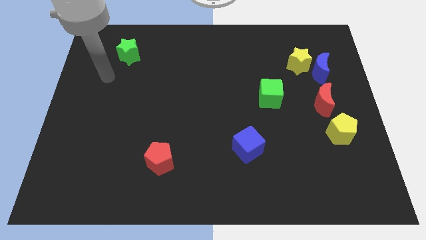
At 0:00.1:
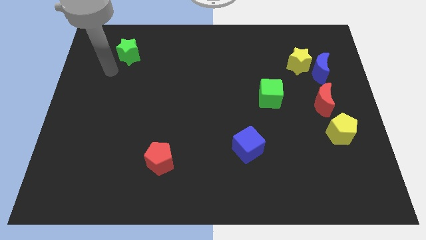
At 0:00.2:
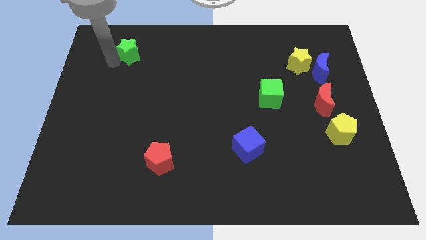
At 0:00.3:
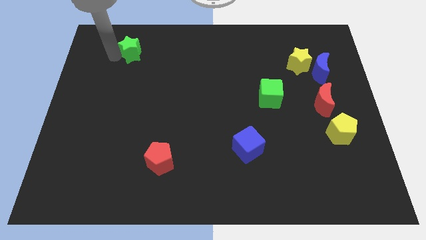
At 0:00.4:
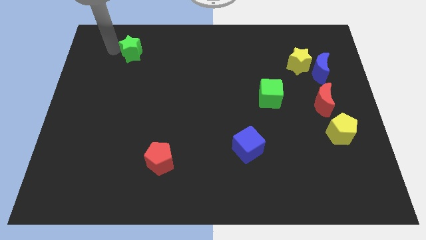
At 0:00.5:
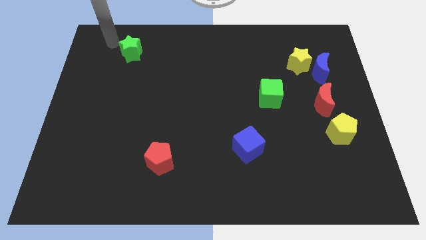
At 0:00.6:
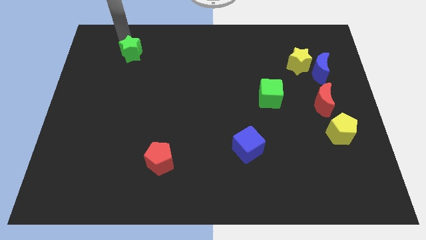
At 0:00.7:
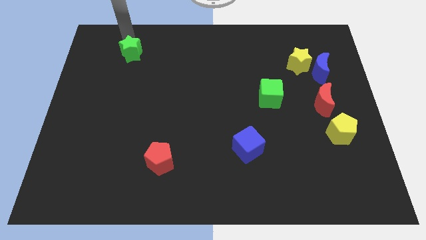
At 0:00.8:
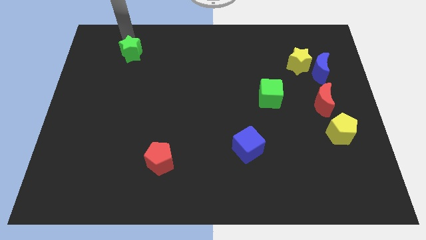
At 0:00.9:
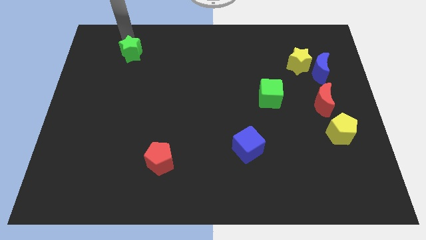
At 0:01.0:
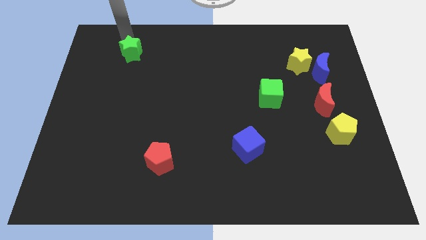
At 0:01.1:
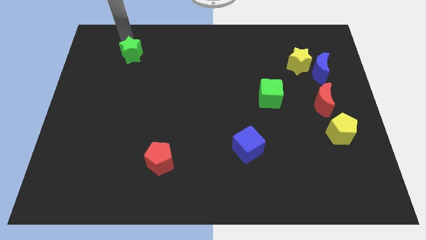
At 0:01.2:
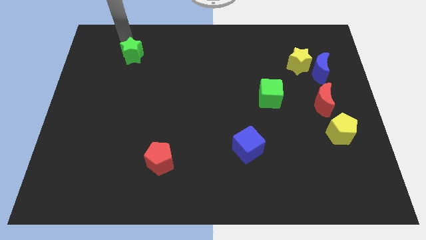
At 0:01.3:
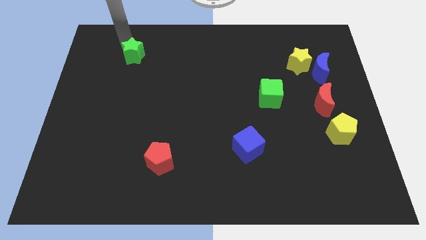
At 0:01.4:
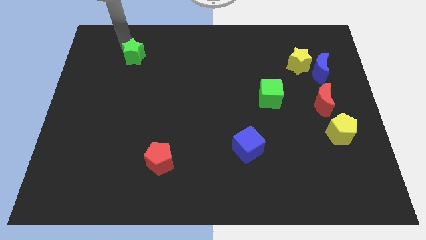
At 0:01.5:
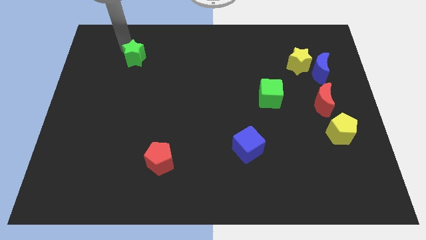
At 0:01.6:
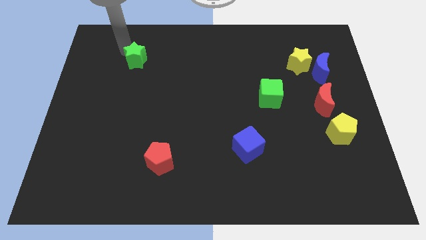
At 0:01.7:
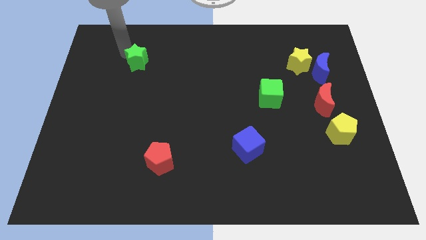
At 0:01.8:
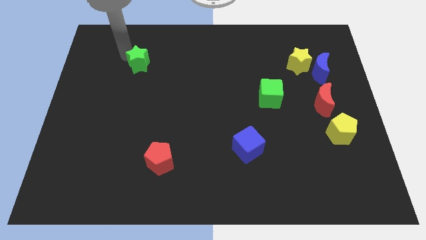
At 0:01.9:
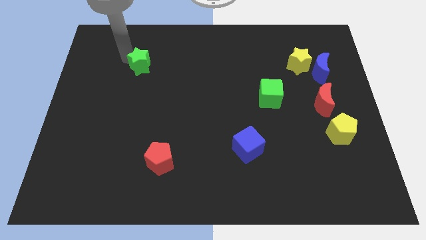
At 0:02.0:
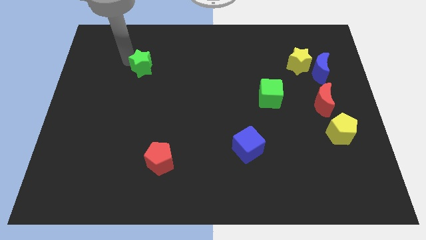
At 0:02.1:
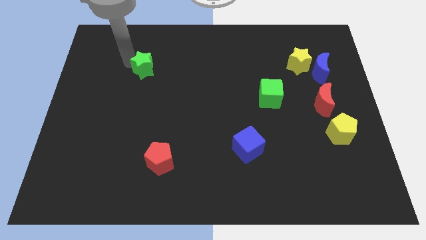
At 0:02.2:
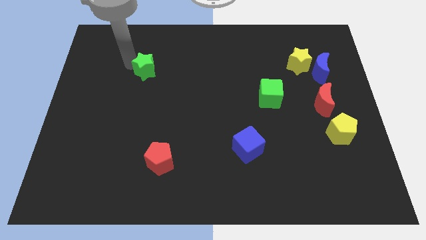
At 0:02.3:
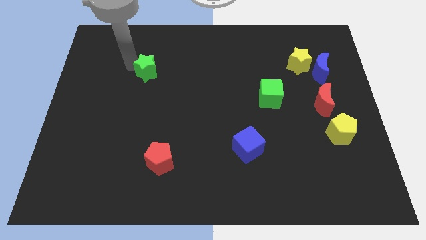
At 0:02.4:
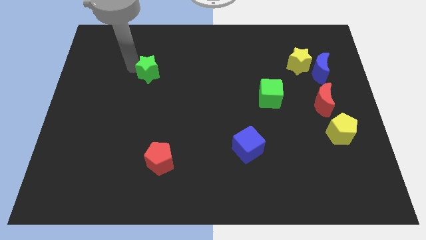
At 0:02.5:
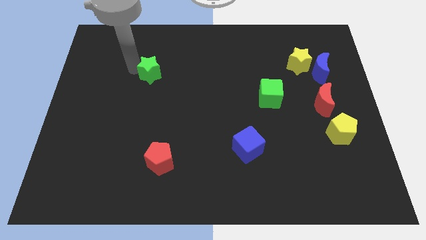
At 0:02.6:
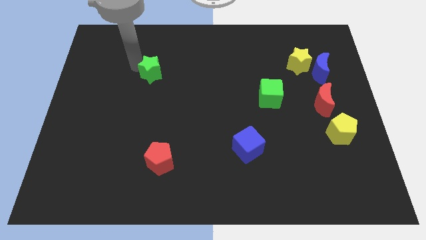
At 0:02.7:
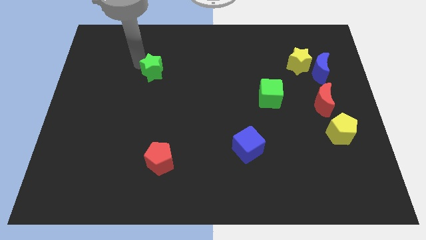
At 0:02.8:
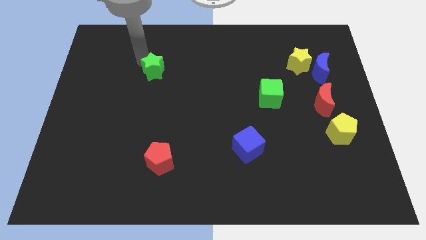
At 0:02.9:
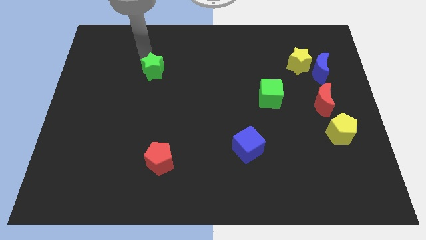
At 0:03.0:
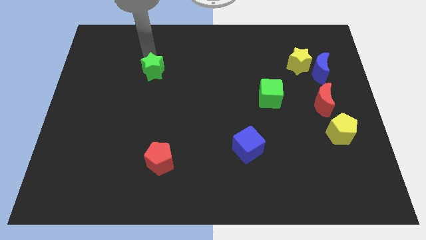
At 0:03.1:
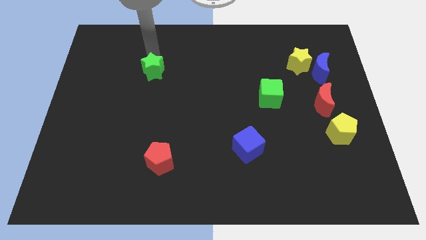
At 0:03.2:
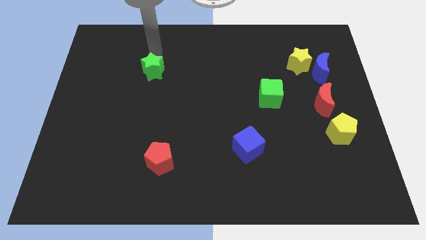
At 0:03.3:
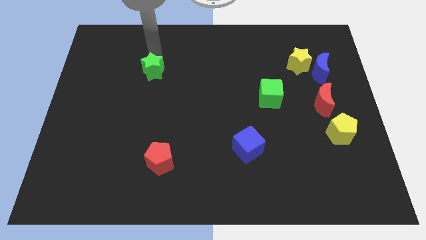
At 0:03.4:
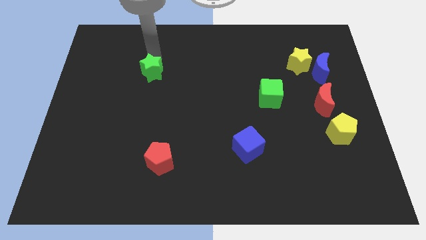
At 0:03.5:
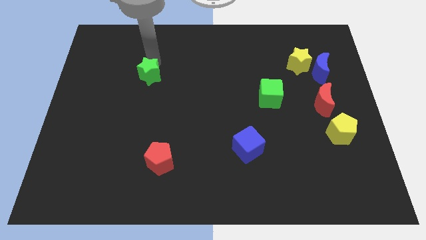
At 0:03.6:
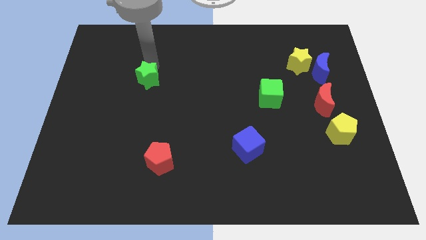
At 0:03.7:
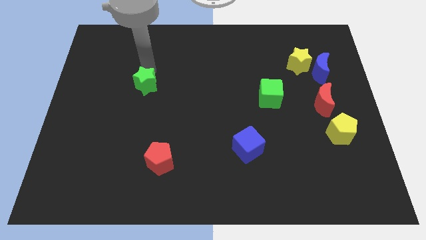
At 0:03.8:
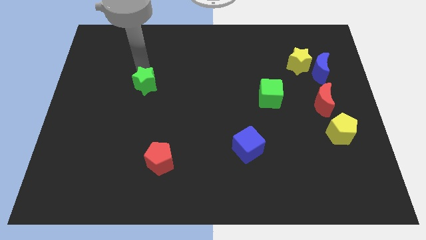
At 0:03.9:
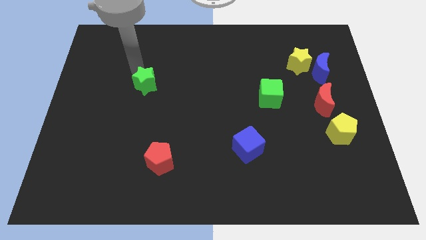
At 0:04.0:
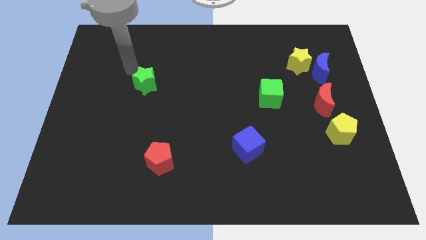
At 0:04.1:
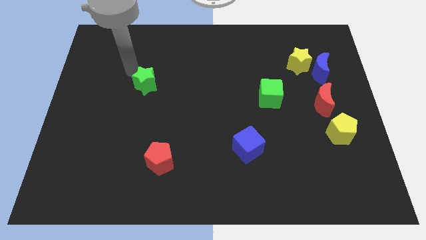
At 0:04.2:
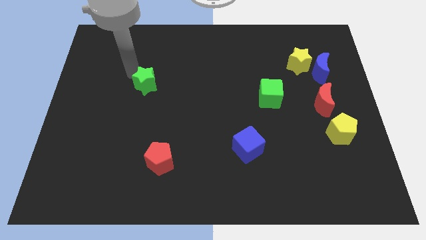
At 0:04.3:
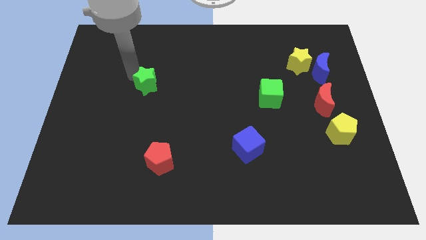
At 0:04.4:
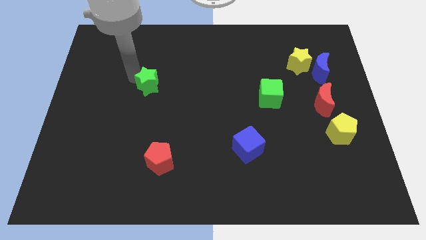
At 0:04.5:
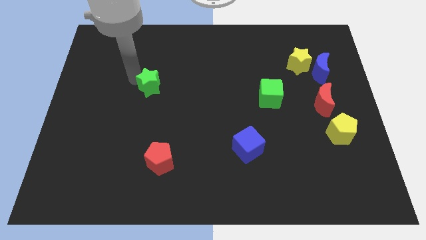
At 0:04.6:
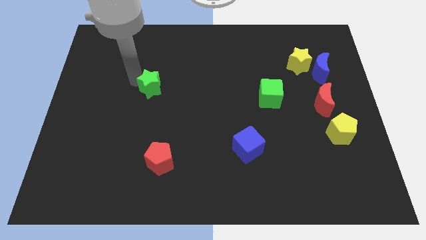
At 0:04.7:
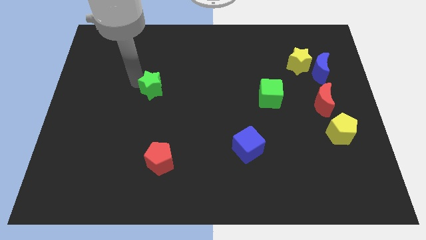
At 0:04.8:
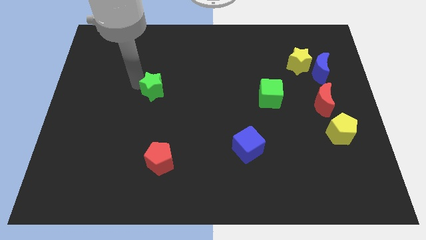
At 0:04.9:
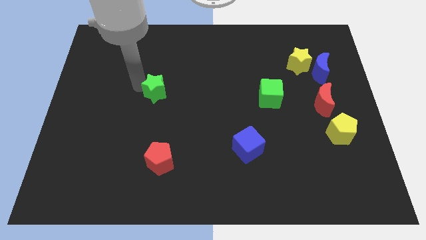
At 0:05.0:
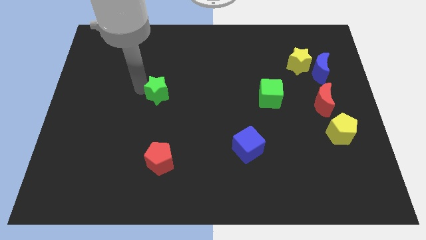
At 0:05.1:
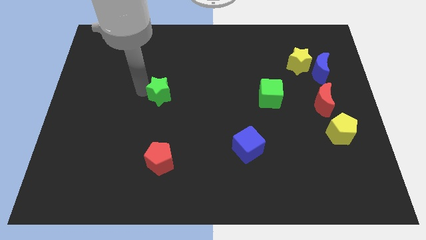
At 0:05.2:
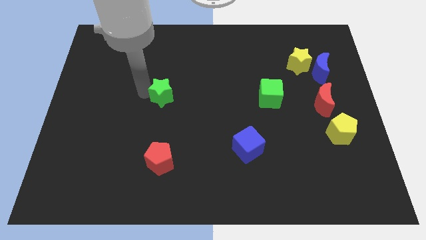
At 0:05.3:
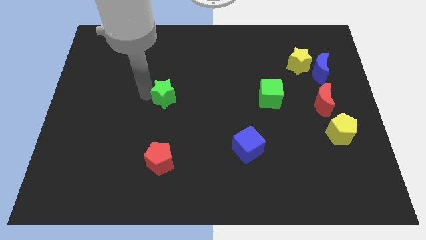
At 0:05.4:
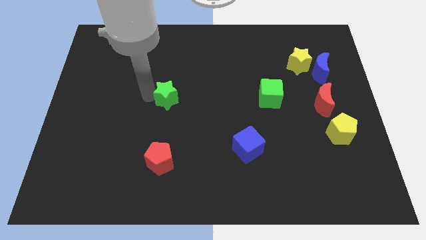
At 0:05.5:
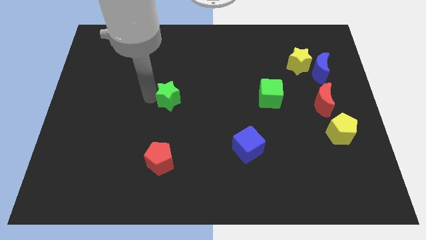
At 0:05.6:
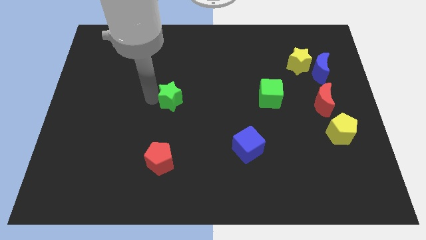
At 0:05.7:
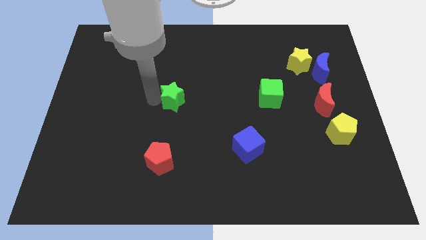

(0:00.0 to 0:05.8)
push the green star down and to the right

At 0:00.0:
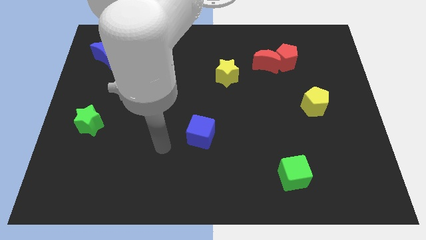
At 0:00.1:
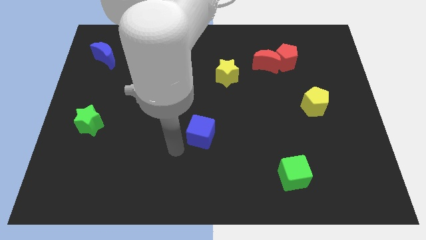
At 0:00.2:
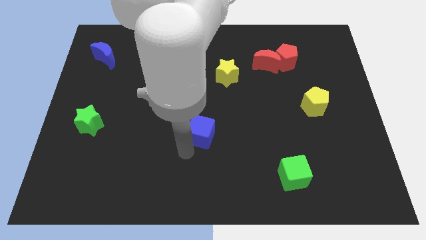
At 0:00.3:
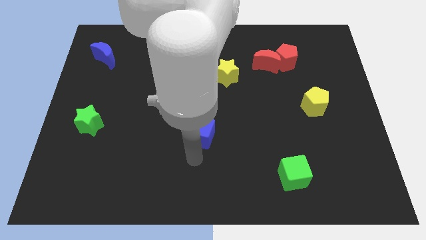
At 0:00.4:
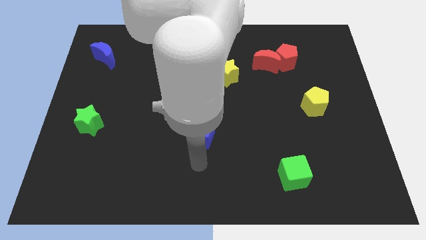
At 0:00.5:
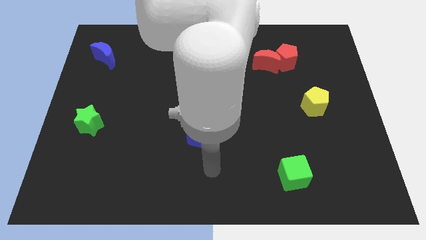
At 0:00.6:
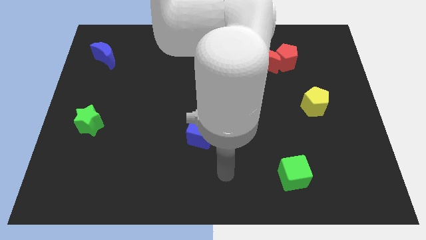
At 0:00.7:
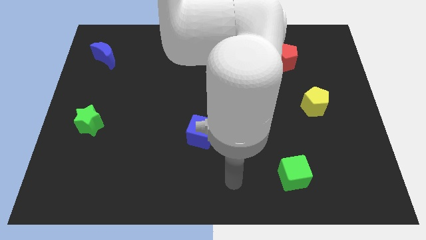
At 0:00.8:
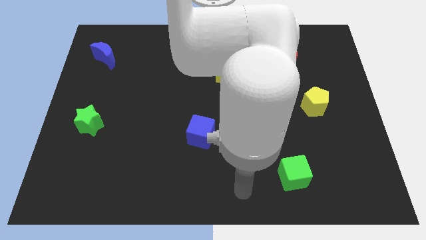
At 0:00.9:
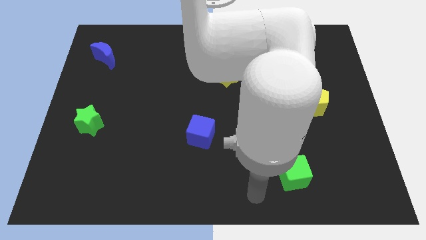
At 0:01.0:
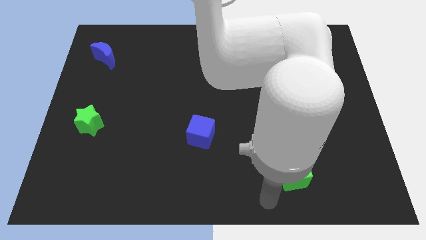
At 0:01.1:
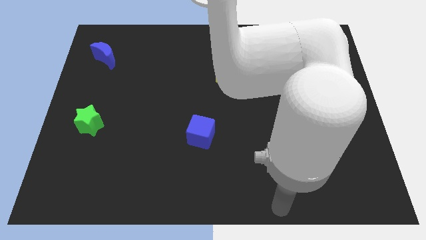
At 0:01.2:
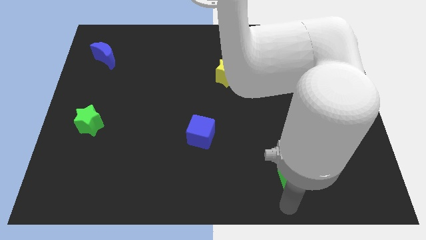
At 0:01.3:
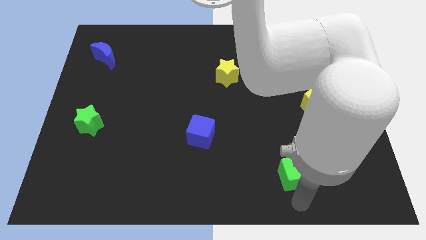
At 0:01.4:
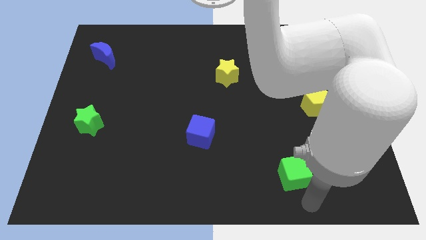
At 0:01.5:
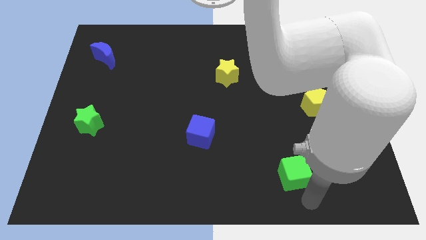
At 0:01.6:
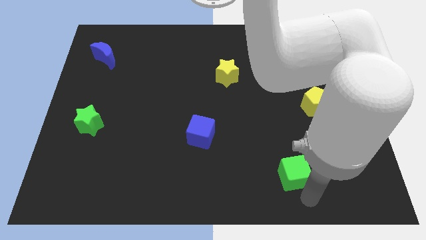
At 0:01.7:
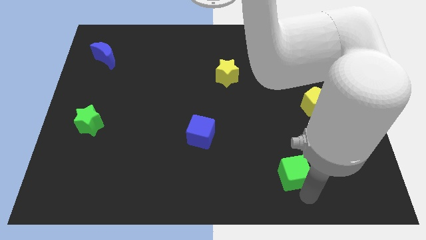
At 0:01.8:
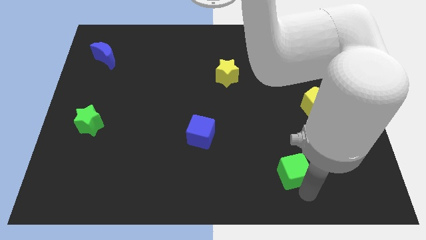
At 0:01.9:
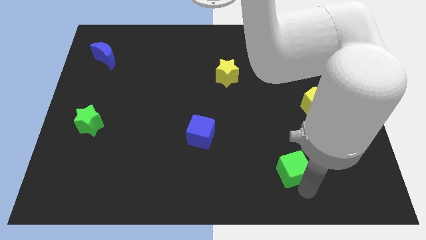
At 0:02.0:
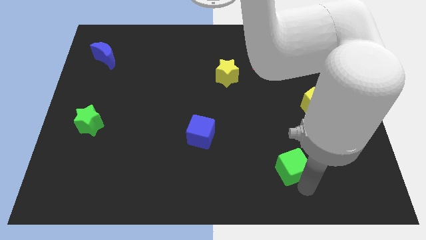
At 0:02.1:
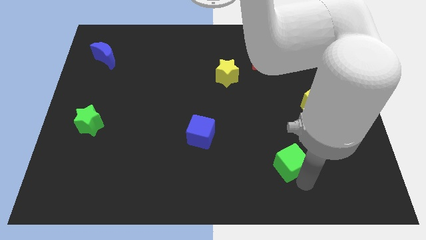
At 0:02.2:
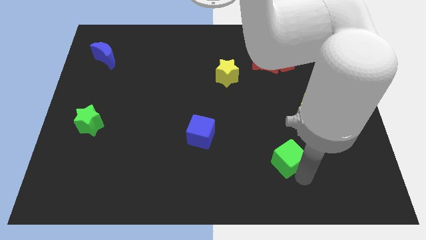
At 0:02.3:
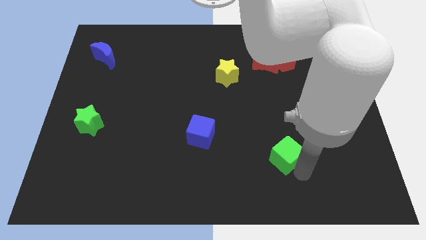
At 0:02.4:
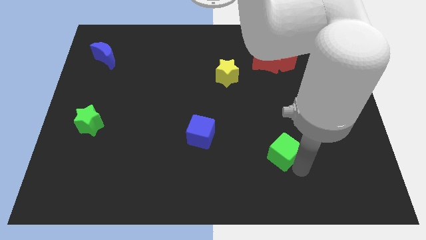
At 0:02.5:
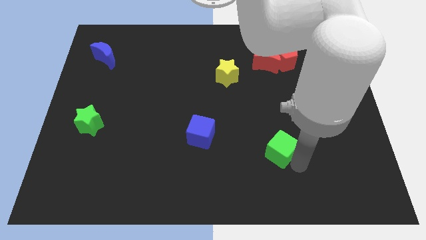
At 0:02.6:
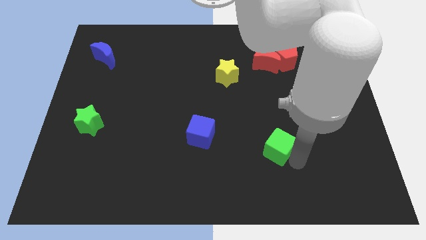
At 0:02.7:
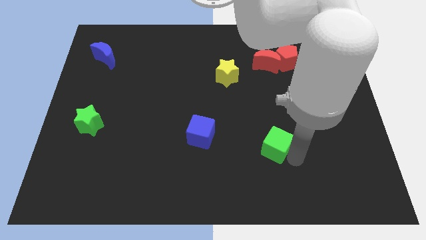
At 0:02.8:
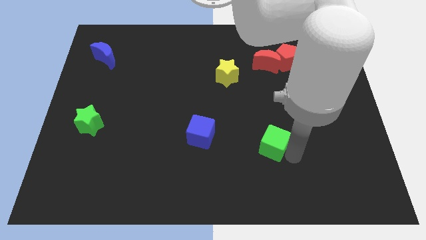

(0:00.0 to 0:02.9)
move the green cube up and then left a bit
